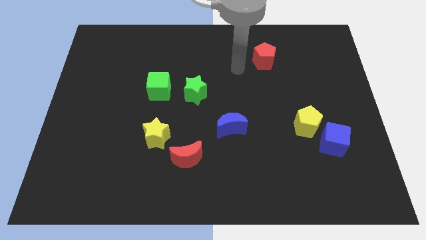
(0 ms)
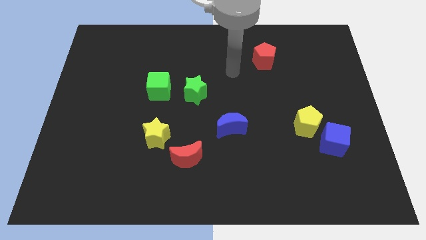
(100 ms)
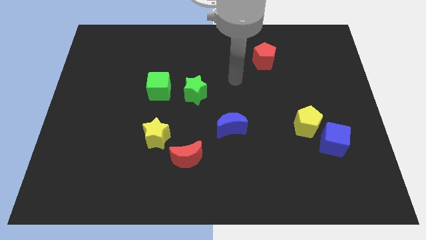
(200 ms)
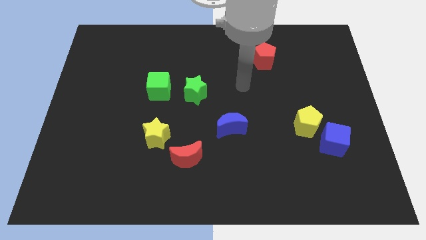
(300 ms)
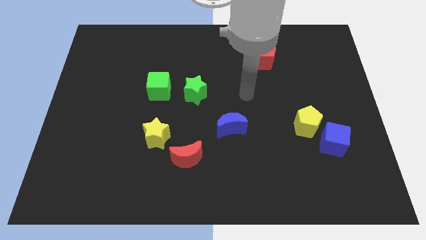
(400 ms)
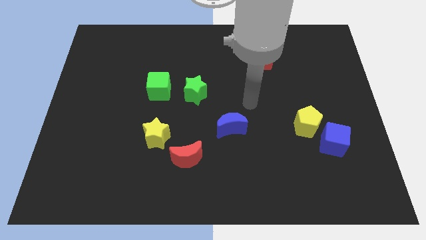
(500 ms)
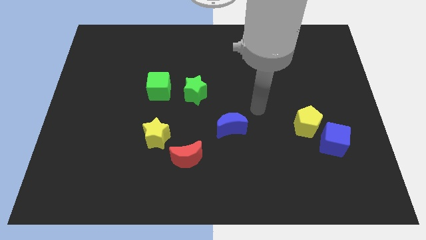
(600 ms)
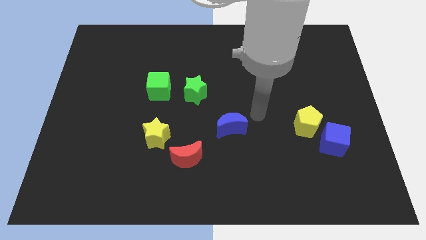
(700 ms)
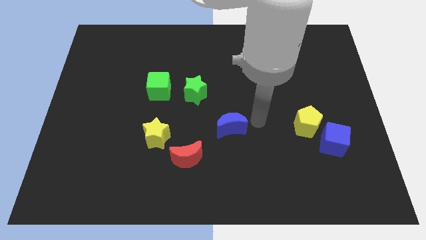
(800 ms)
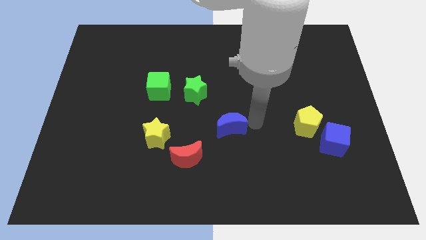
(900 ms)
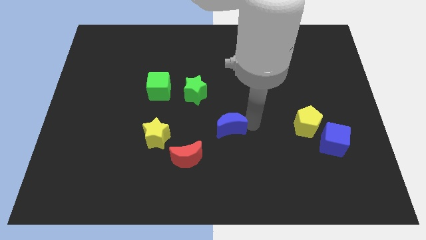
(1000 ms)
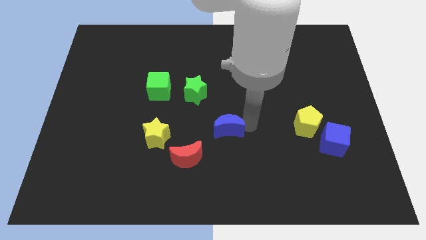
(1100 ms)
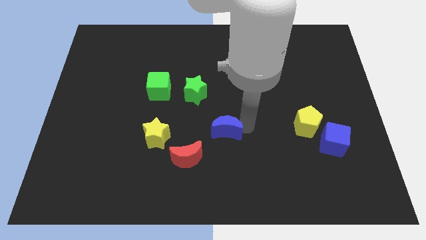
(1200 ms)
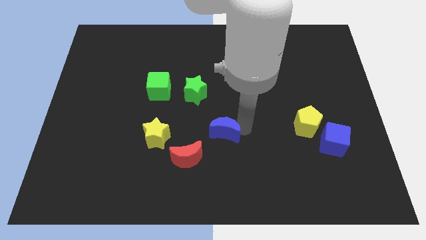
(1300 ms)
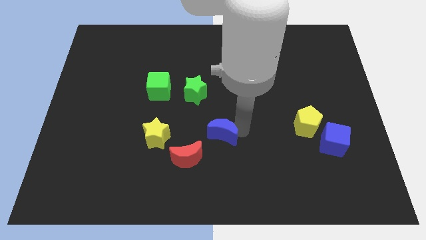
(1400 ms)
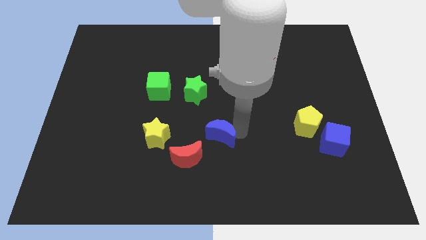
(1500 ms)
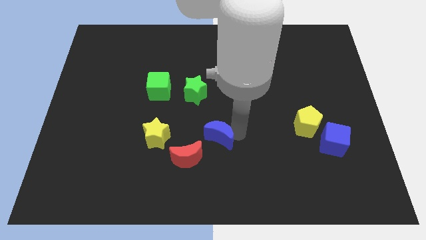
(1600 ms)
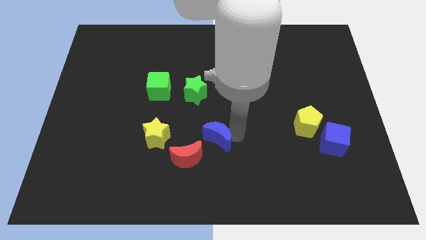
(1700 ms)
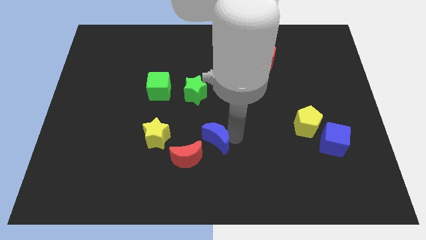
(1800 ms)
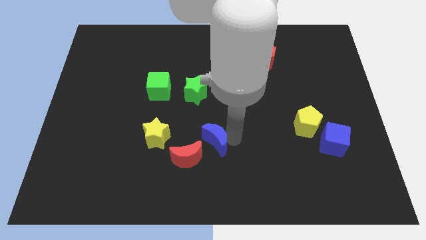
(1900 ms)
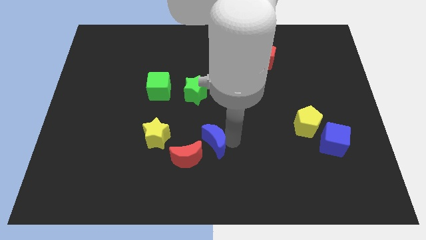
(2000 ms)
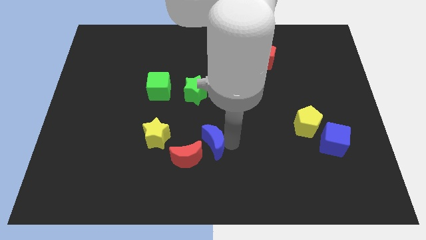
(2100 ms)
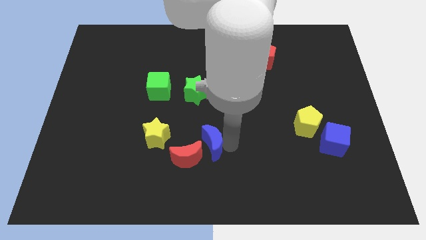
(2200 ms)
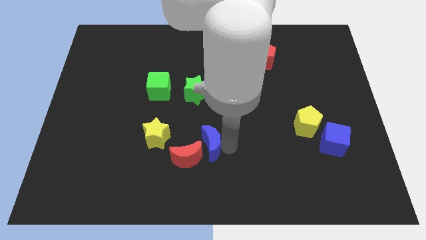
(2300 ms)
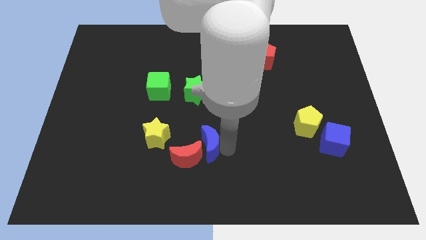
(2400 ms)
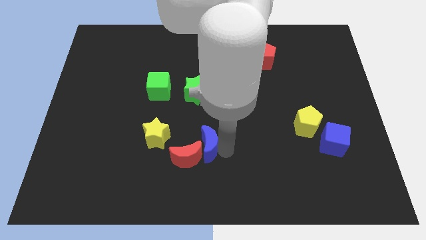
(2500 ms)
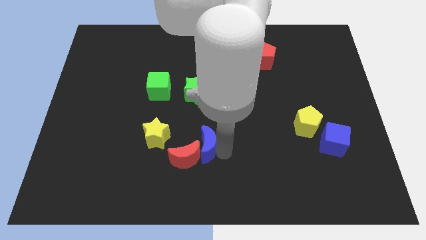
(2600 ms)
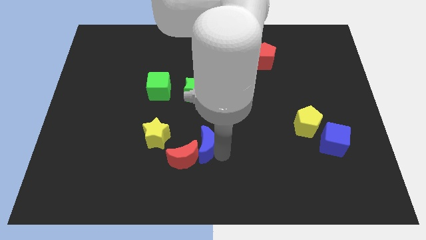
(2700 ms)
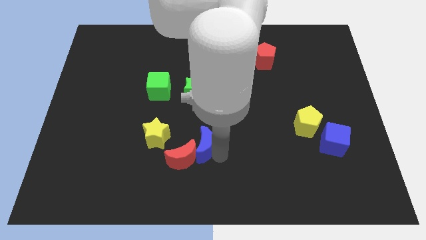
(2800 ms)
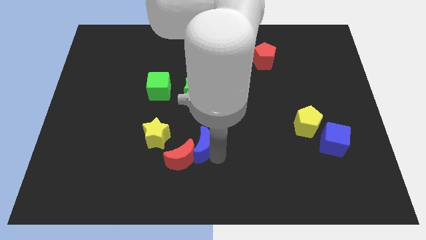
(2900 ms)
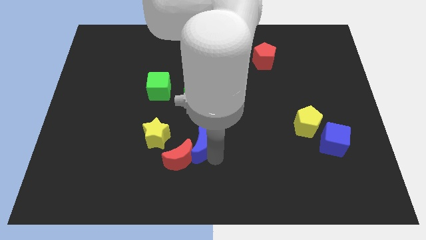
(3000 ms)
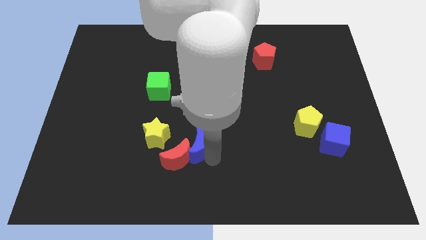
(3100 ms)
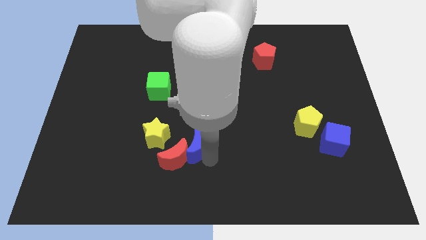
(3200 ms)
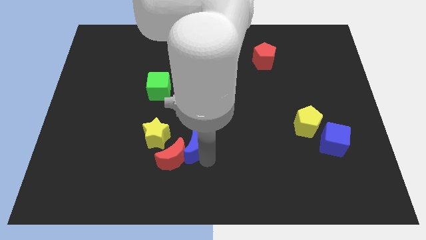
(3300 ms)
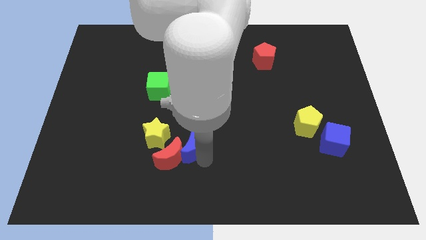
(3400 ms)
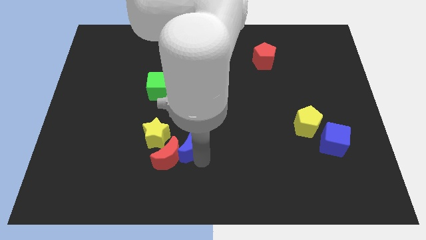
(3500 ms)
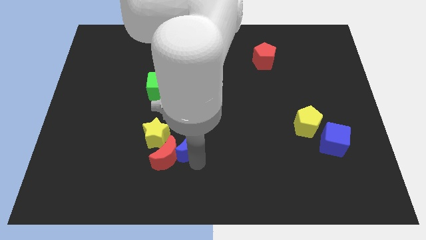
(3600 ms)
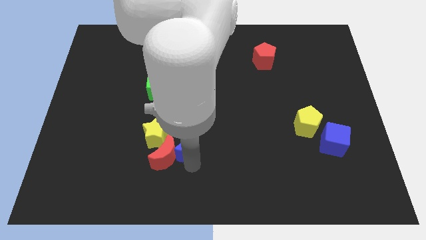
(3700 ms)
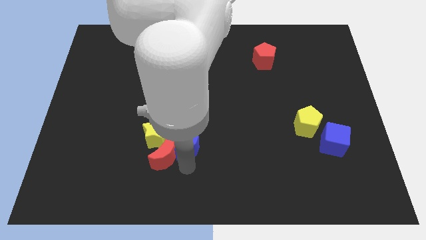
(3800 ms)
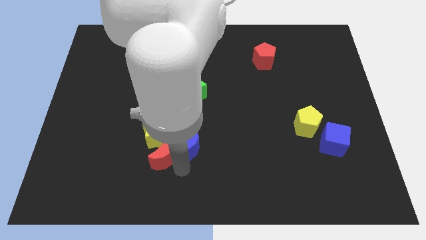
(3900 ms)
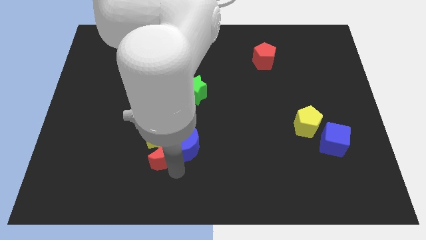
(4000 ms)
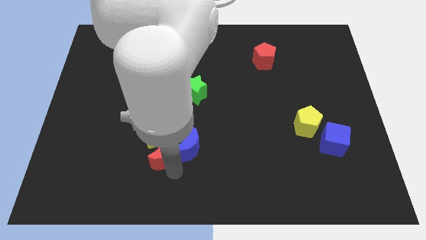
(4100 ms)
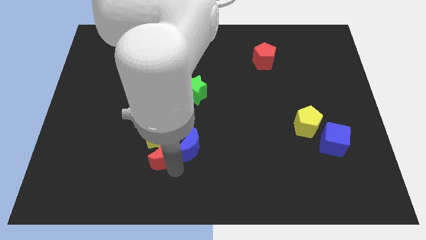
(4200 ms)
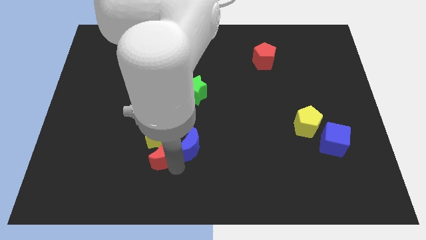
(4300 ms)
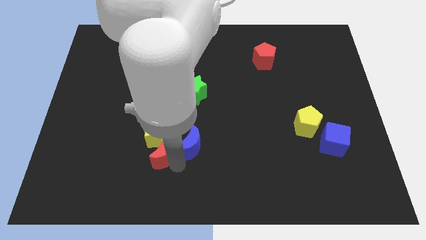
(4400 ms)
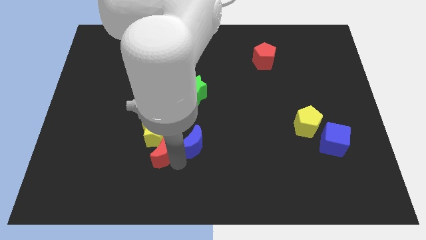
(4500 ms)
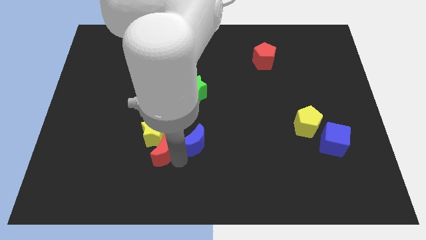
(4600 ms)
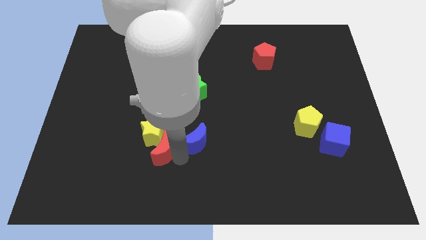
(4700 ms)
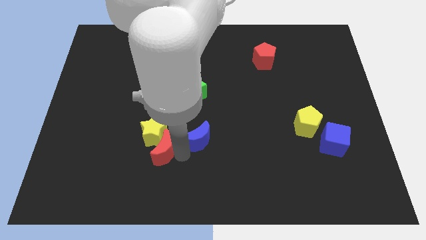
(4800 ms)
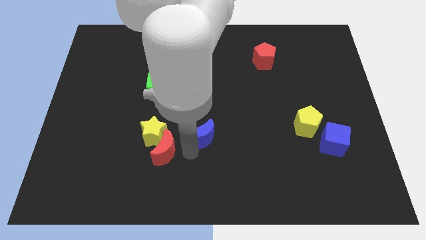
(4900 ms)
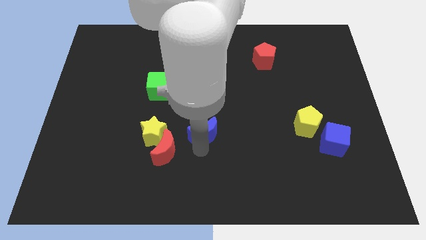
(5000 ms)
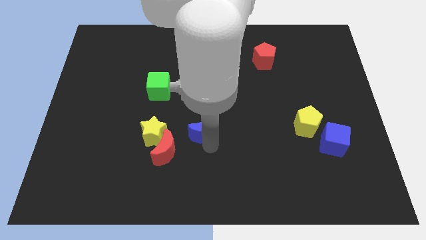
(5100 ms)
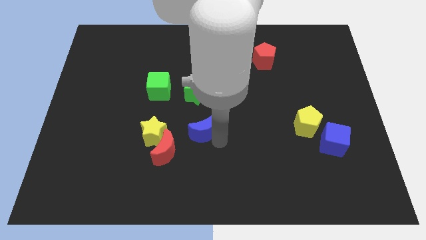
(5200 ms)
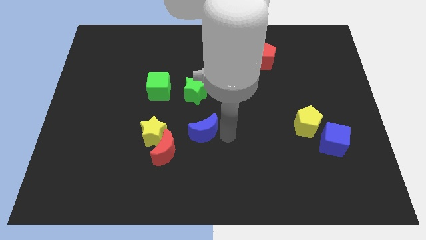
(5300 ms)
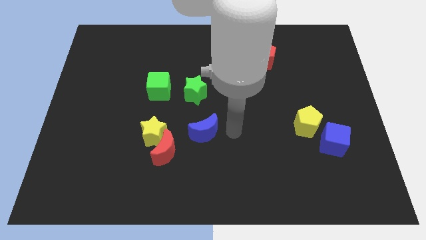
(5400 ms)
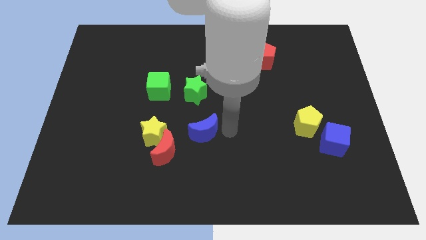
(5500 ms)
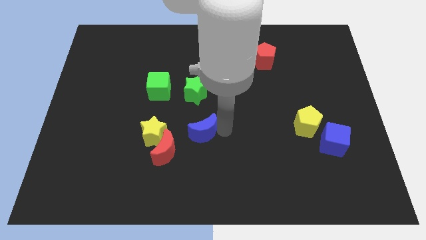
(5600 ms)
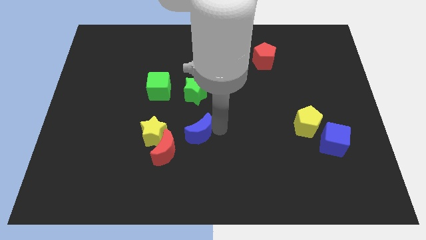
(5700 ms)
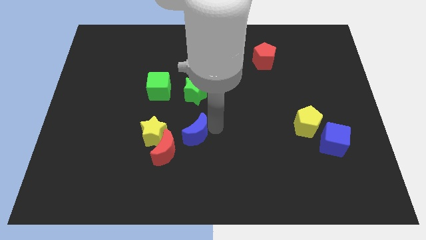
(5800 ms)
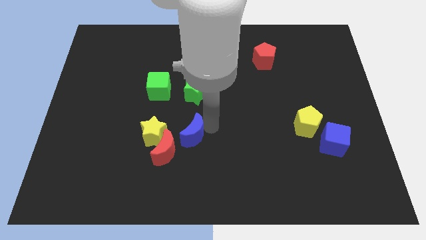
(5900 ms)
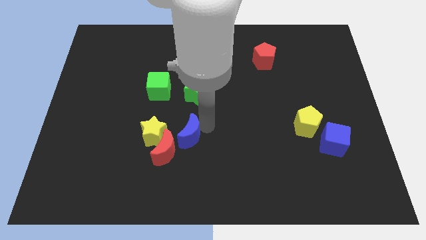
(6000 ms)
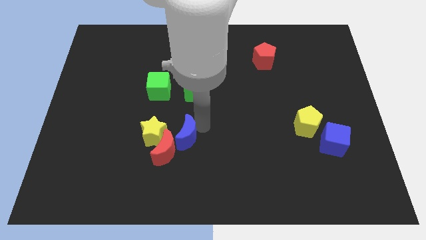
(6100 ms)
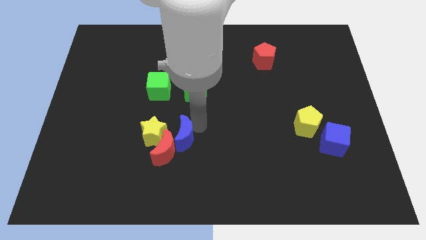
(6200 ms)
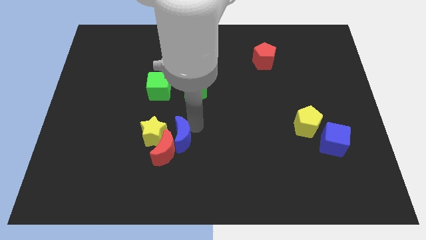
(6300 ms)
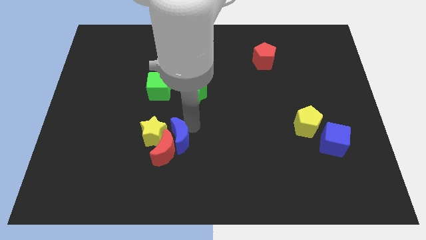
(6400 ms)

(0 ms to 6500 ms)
move the blue moon next to the yellow star

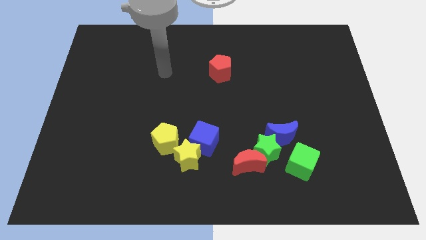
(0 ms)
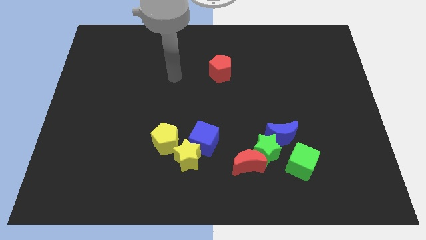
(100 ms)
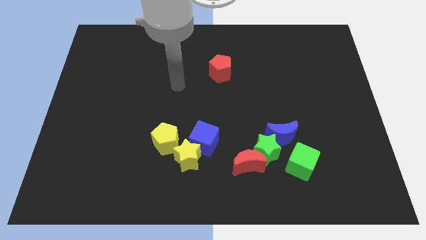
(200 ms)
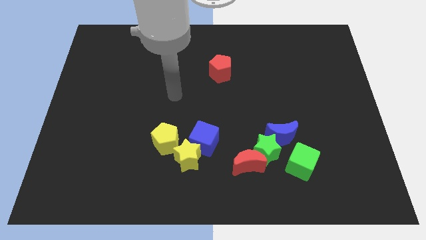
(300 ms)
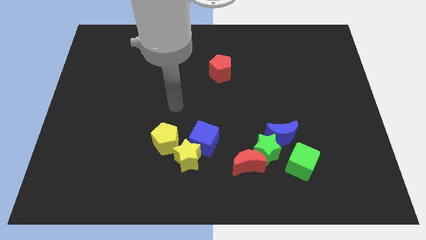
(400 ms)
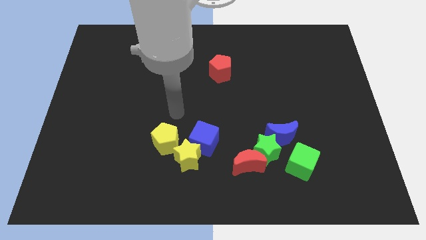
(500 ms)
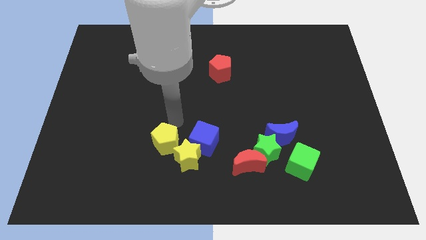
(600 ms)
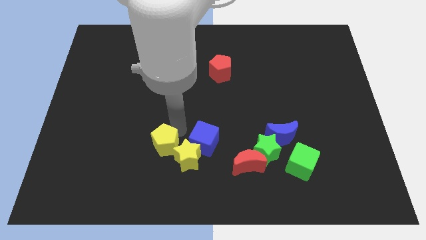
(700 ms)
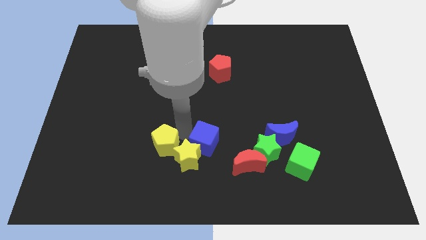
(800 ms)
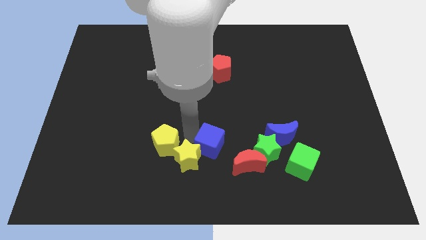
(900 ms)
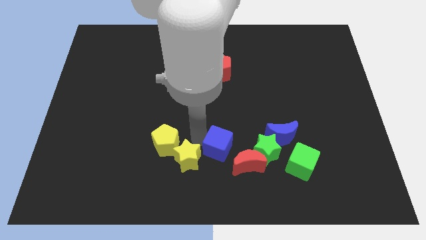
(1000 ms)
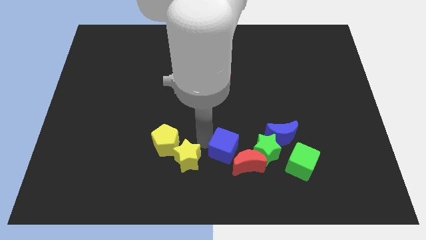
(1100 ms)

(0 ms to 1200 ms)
push the blue cube next to the red moon

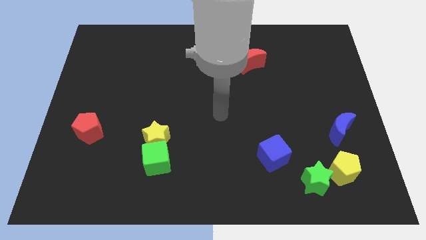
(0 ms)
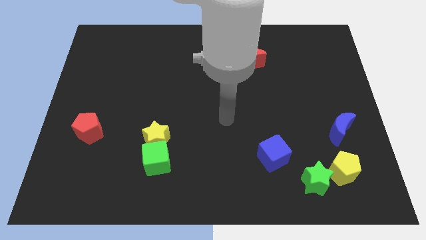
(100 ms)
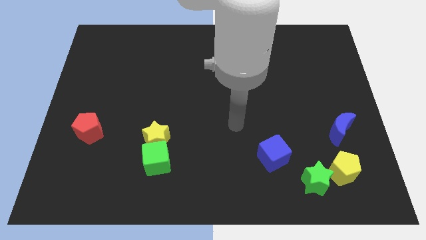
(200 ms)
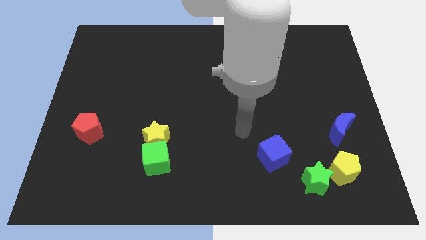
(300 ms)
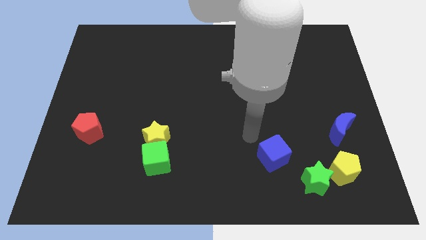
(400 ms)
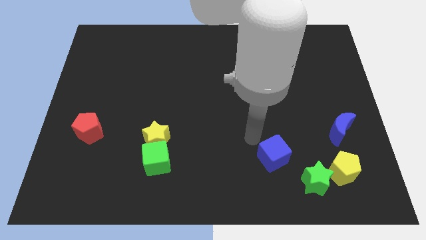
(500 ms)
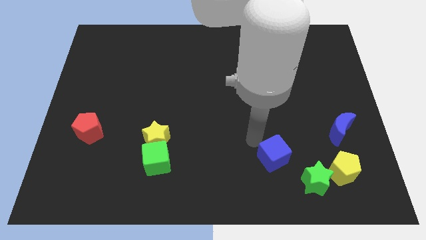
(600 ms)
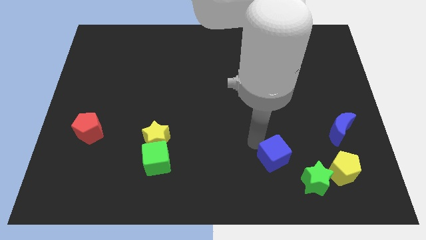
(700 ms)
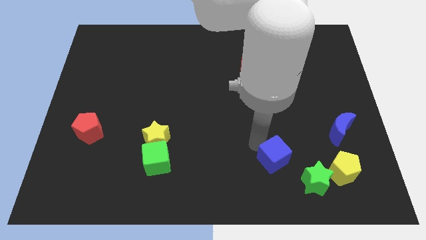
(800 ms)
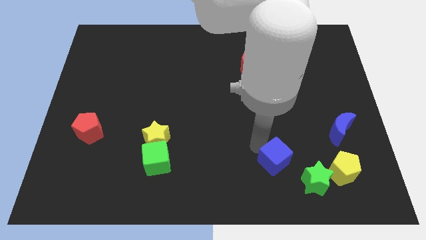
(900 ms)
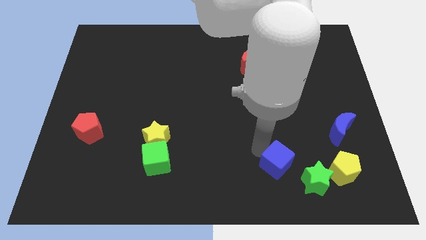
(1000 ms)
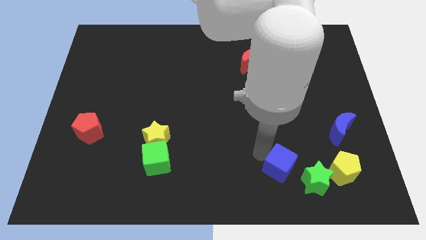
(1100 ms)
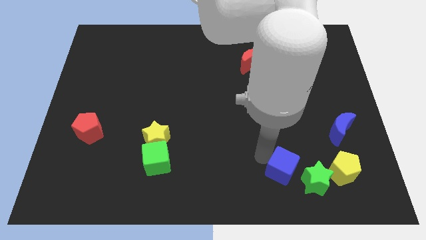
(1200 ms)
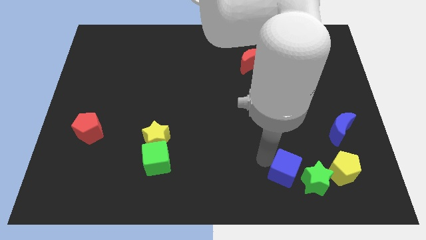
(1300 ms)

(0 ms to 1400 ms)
slide the blue cube to the green star
